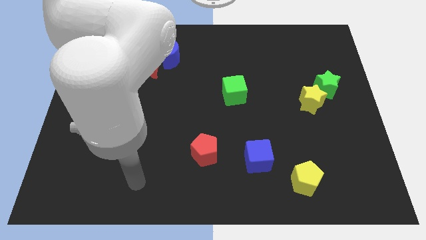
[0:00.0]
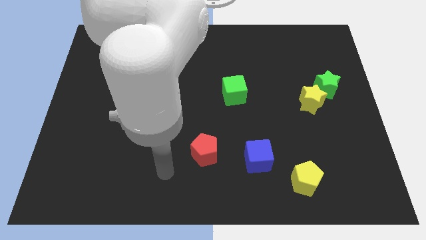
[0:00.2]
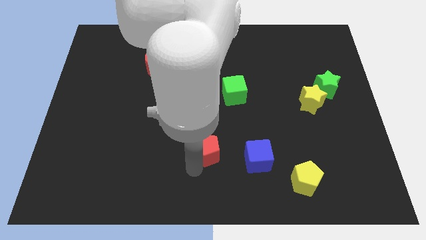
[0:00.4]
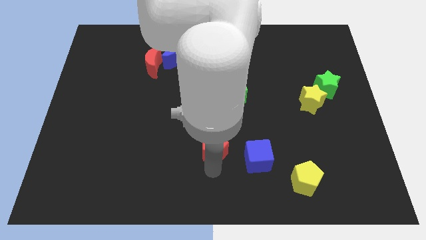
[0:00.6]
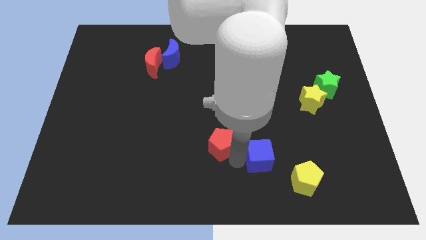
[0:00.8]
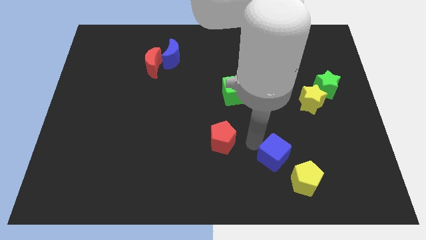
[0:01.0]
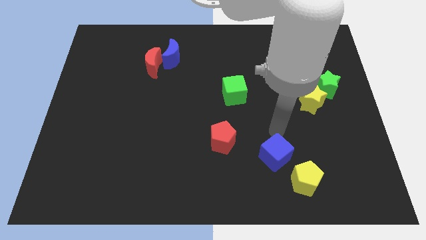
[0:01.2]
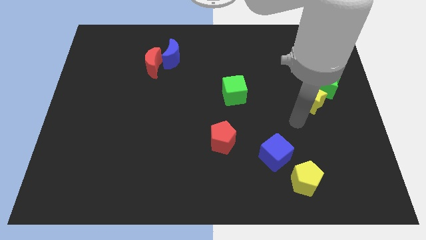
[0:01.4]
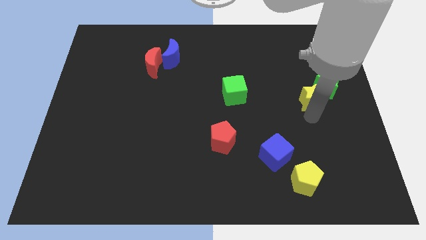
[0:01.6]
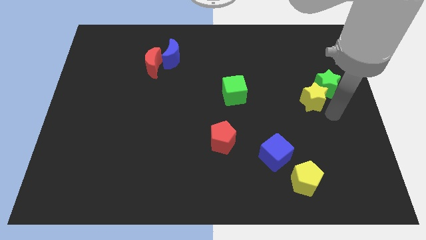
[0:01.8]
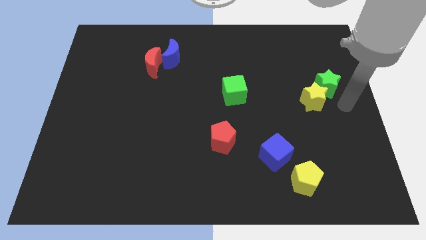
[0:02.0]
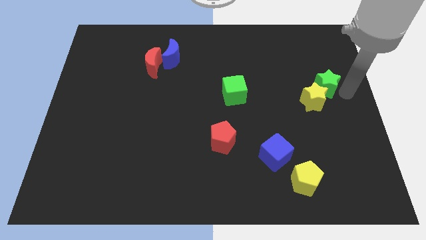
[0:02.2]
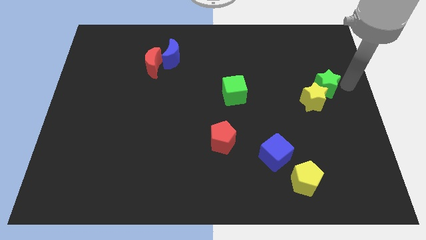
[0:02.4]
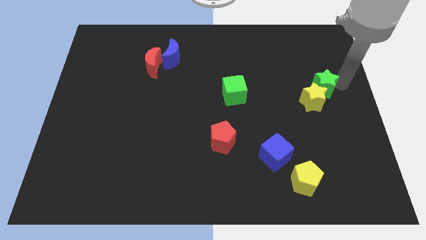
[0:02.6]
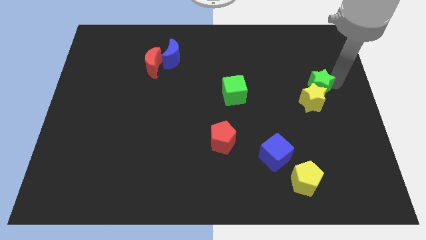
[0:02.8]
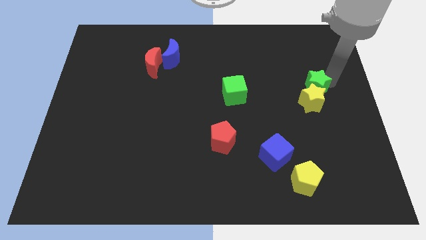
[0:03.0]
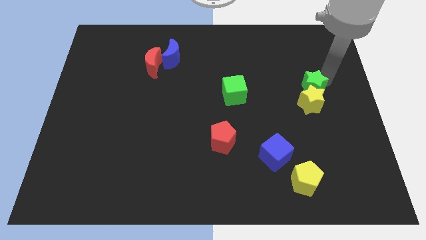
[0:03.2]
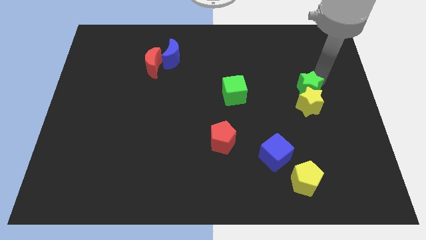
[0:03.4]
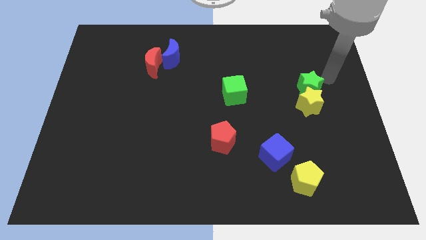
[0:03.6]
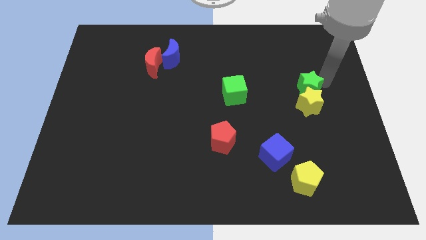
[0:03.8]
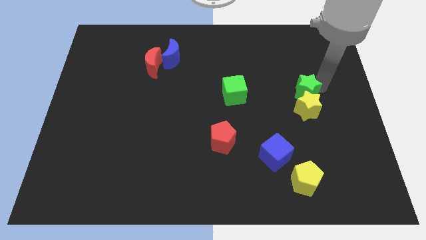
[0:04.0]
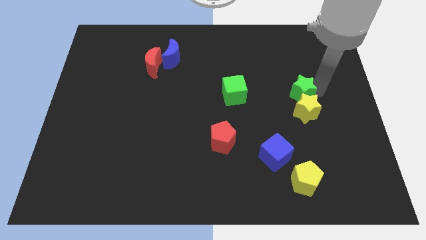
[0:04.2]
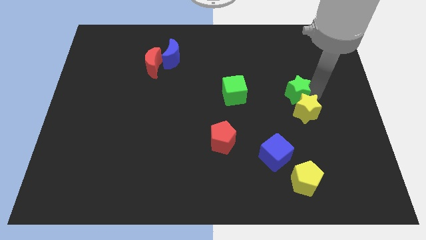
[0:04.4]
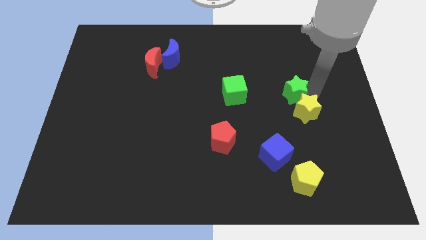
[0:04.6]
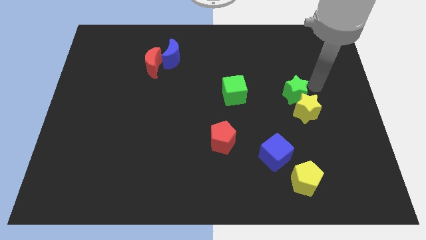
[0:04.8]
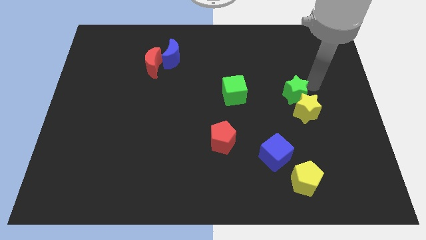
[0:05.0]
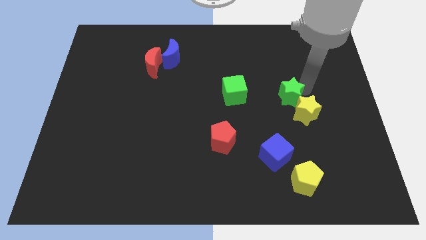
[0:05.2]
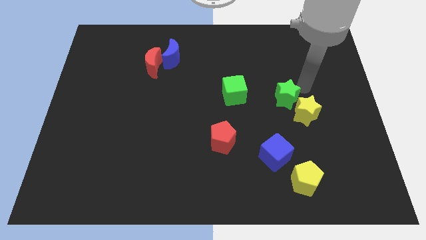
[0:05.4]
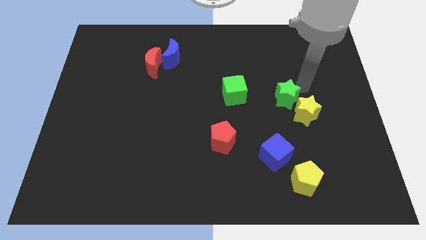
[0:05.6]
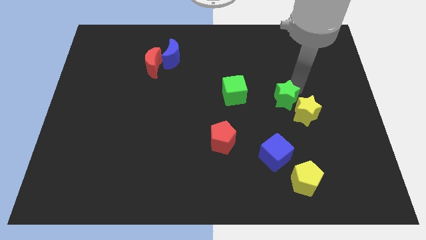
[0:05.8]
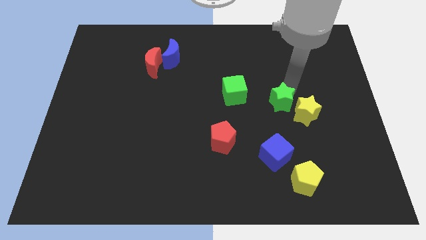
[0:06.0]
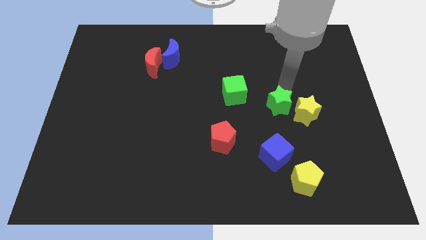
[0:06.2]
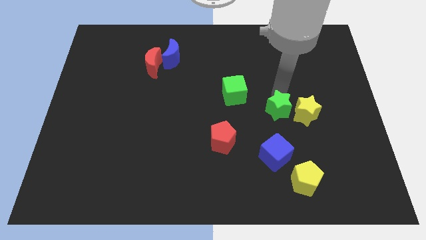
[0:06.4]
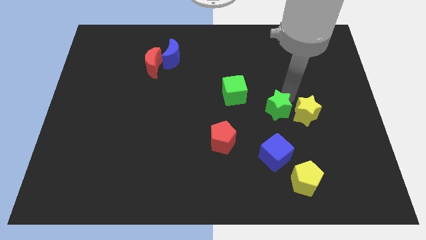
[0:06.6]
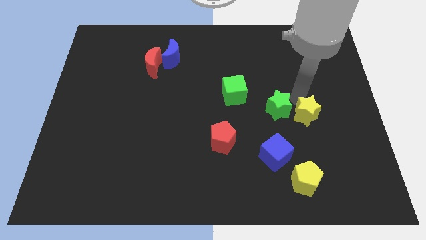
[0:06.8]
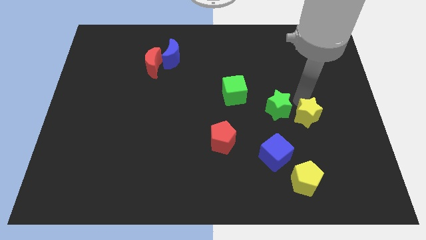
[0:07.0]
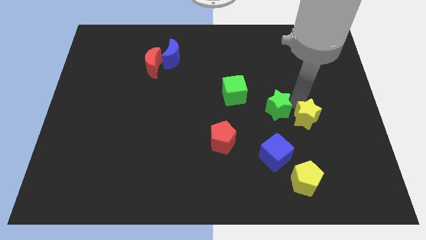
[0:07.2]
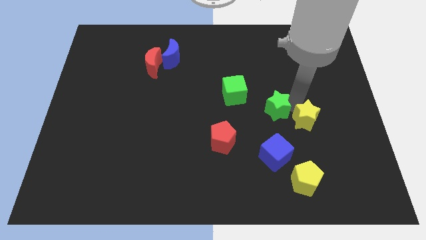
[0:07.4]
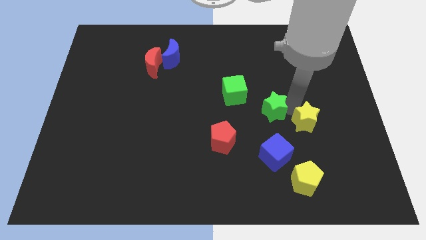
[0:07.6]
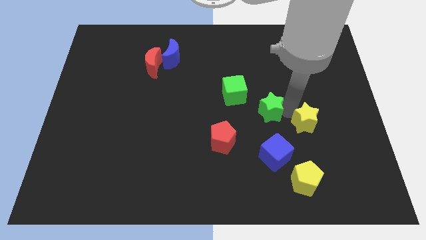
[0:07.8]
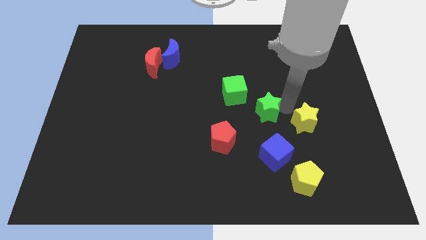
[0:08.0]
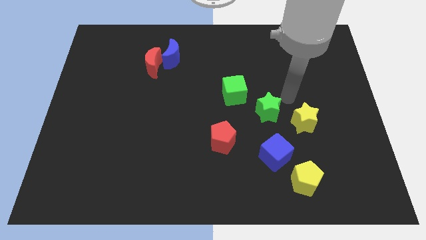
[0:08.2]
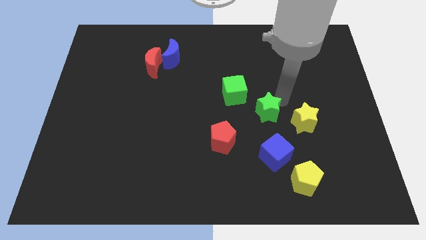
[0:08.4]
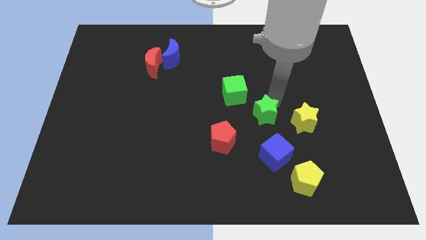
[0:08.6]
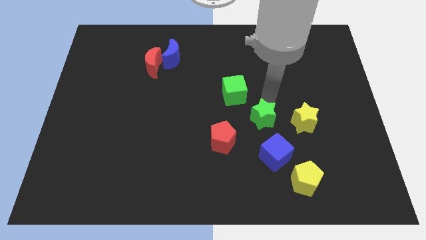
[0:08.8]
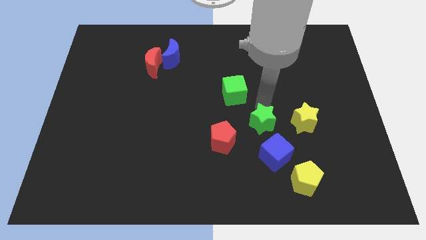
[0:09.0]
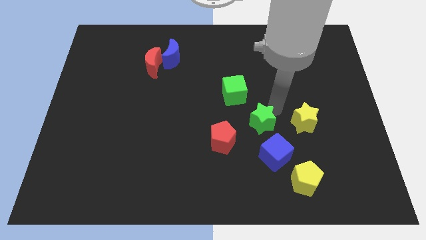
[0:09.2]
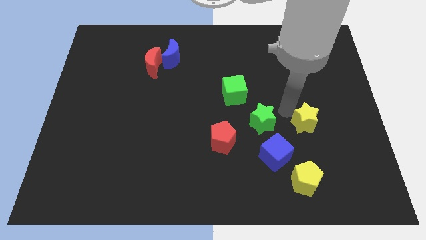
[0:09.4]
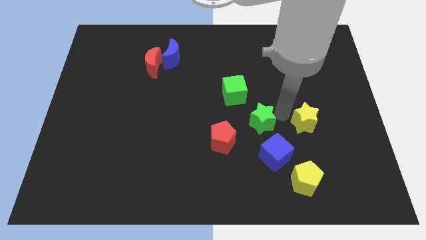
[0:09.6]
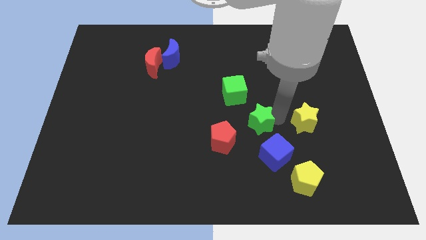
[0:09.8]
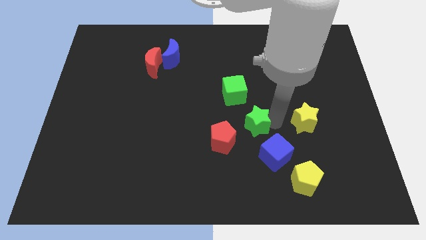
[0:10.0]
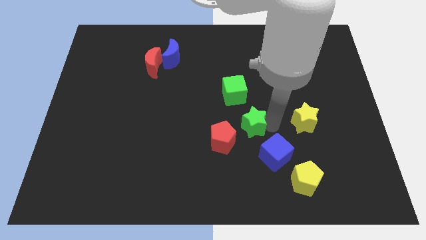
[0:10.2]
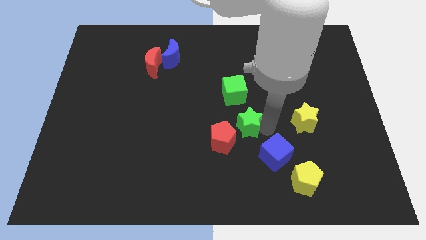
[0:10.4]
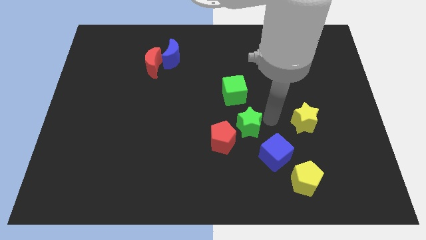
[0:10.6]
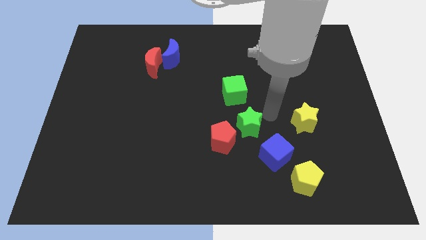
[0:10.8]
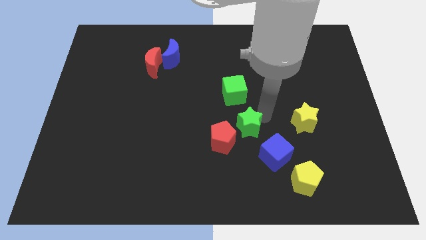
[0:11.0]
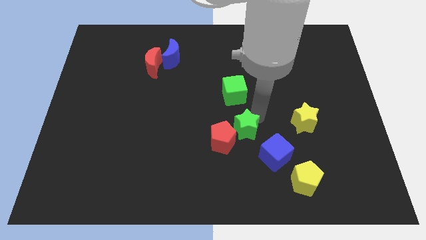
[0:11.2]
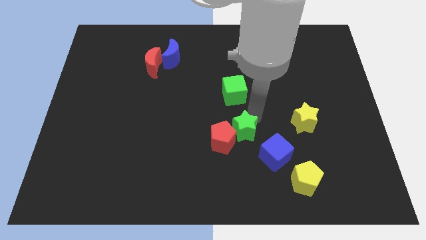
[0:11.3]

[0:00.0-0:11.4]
push the green star towards the red pentagon

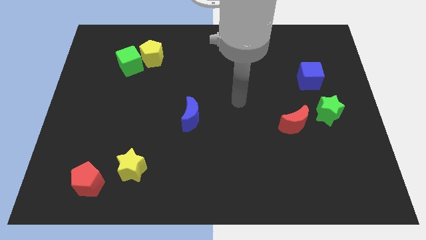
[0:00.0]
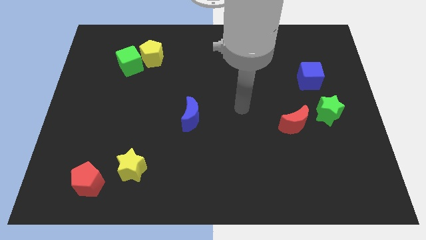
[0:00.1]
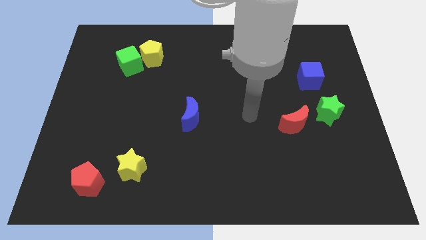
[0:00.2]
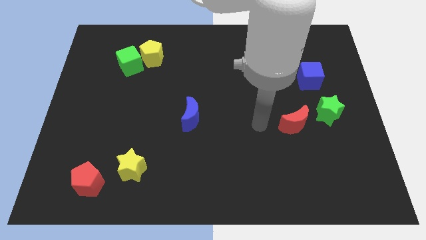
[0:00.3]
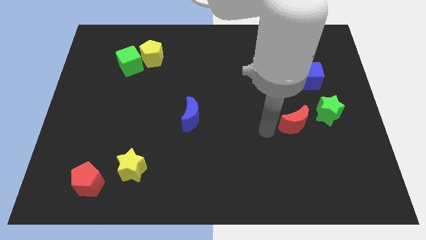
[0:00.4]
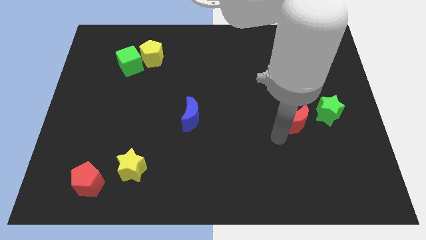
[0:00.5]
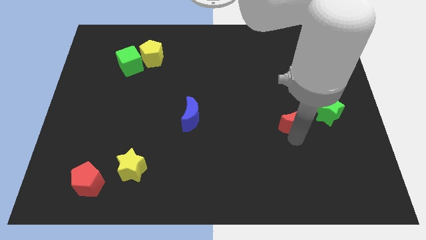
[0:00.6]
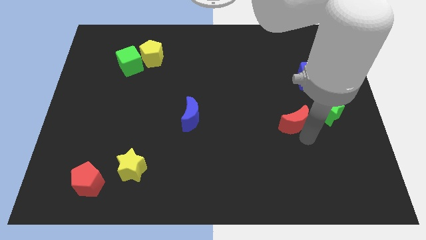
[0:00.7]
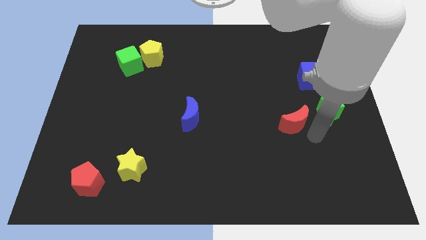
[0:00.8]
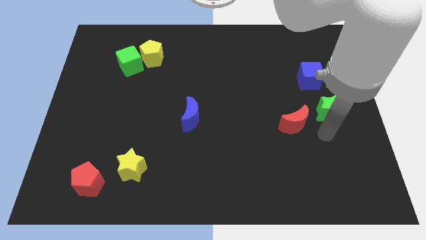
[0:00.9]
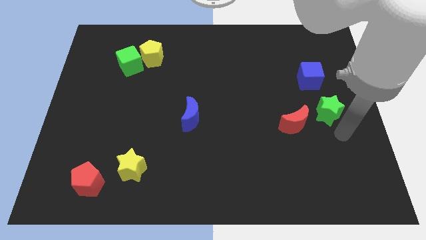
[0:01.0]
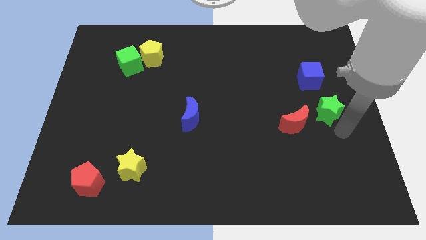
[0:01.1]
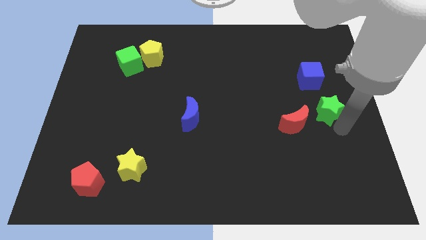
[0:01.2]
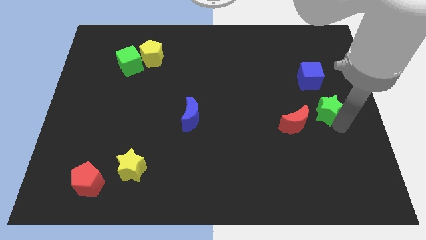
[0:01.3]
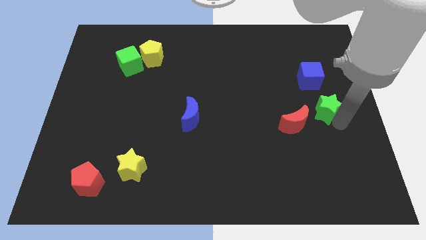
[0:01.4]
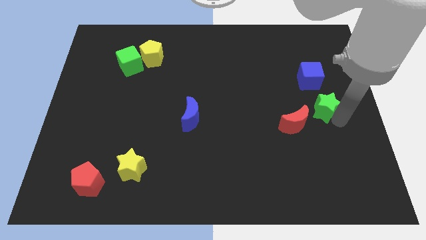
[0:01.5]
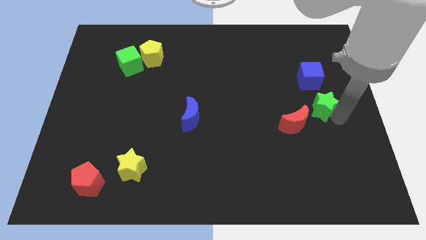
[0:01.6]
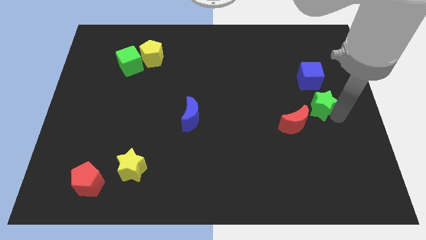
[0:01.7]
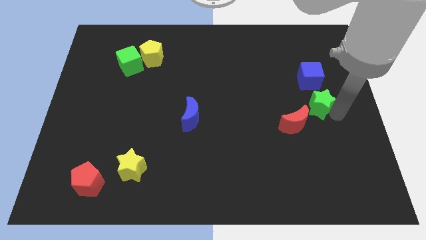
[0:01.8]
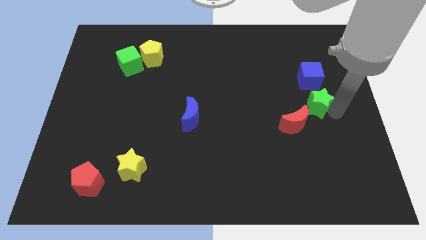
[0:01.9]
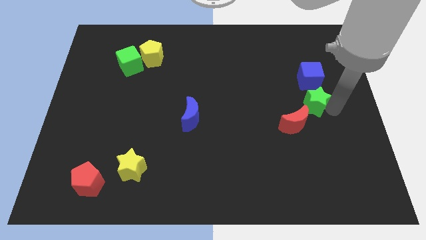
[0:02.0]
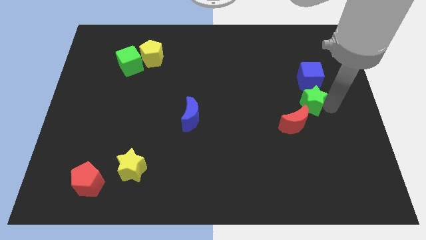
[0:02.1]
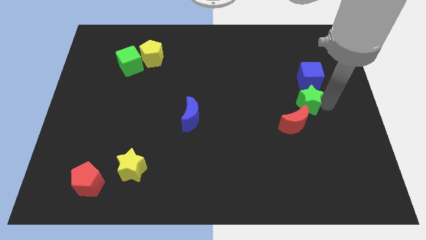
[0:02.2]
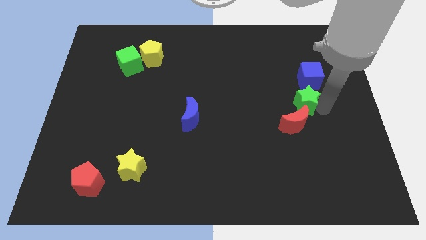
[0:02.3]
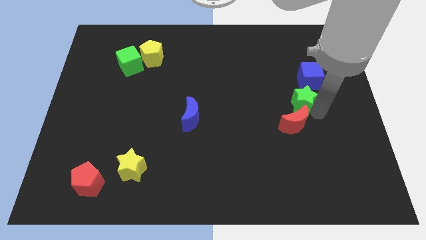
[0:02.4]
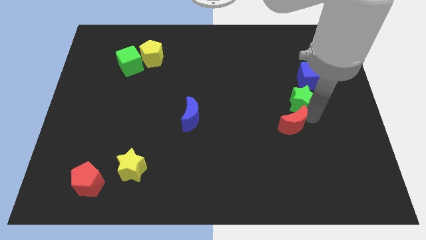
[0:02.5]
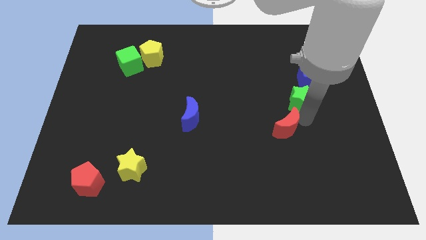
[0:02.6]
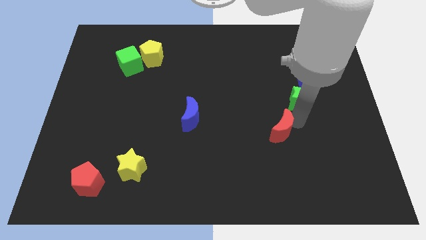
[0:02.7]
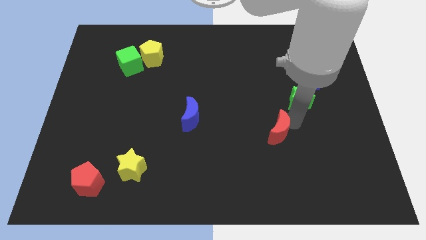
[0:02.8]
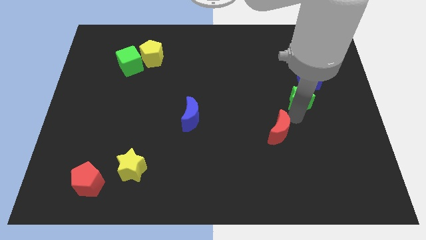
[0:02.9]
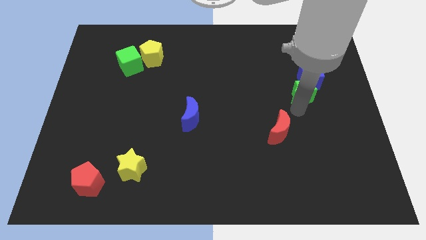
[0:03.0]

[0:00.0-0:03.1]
put the green star to the blue cube
